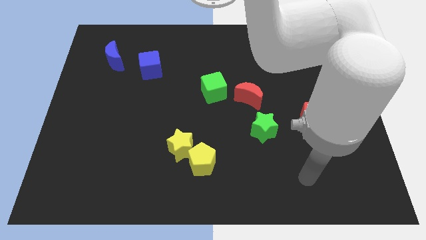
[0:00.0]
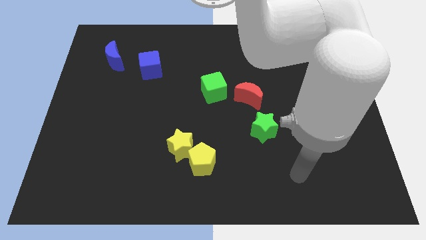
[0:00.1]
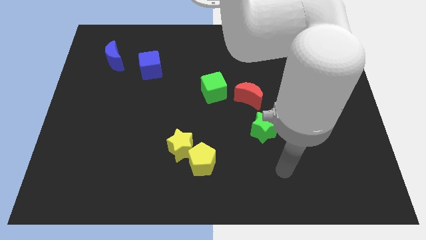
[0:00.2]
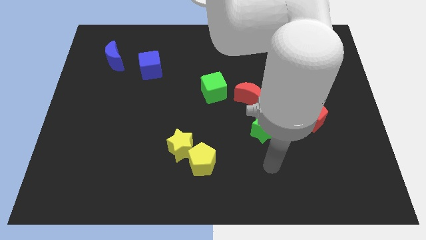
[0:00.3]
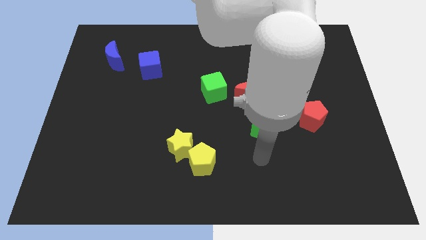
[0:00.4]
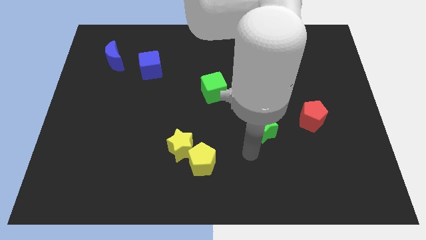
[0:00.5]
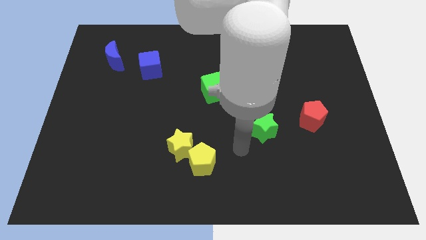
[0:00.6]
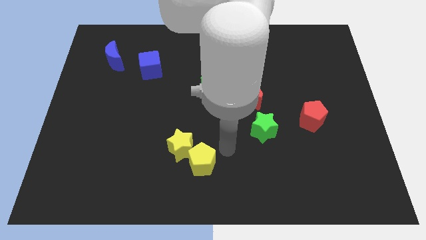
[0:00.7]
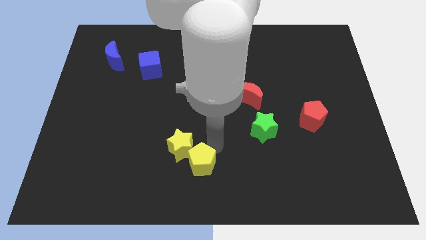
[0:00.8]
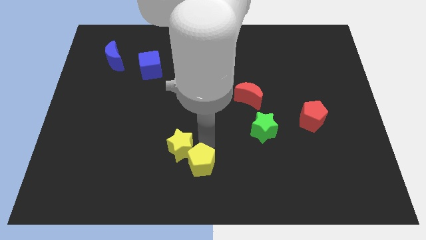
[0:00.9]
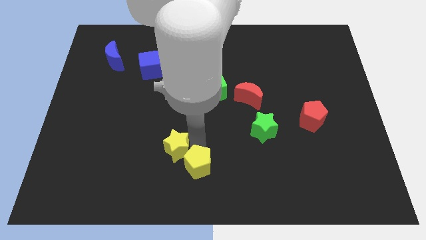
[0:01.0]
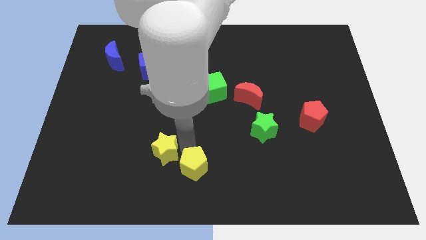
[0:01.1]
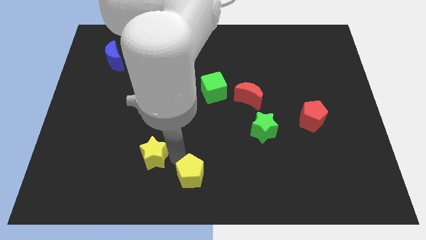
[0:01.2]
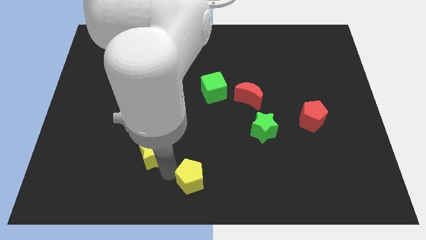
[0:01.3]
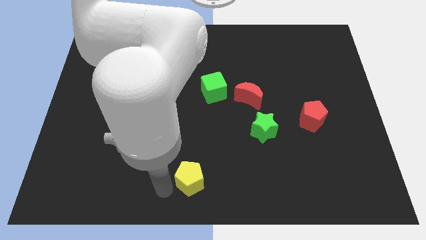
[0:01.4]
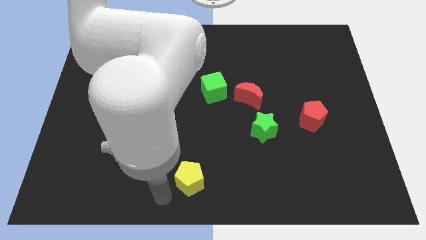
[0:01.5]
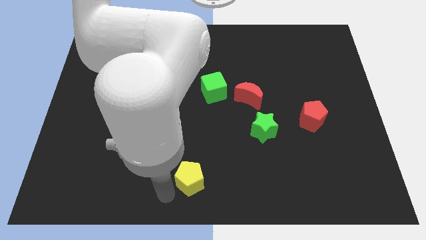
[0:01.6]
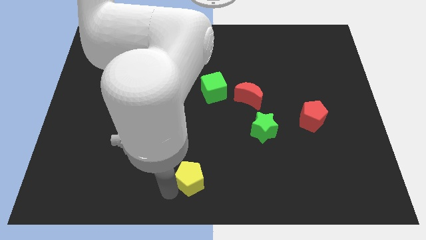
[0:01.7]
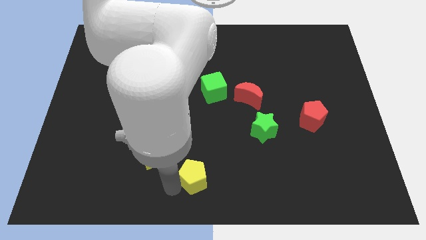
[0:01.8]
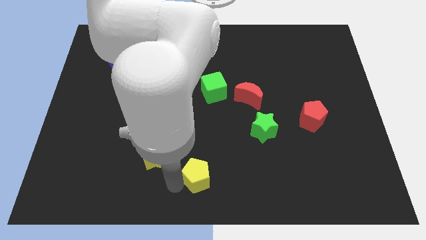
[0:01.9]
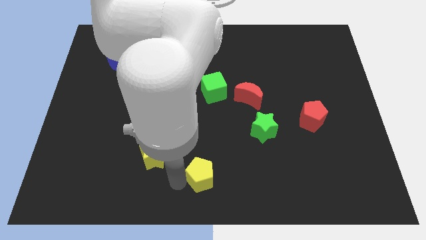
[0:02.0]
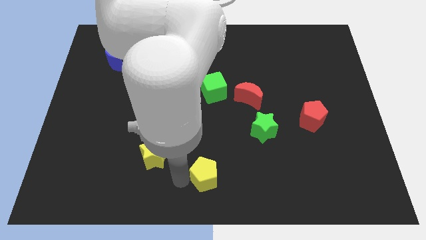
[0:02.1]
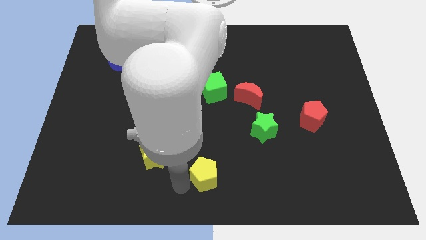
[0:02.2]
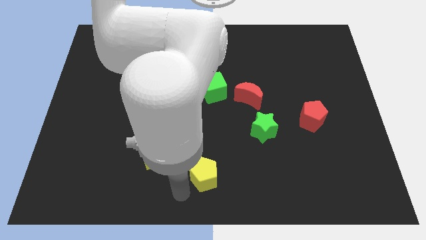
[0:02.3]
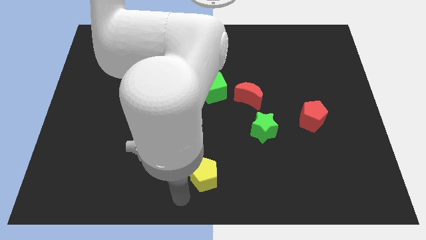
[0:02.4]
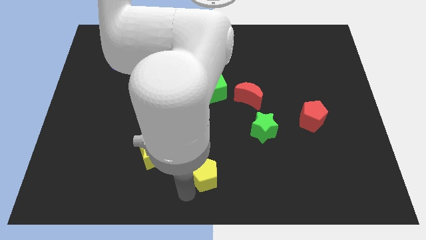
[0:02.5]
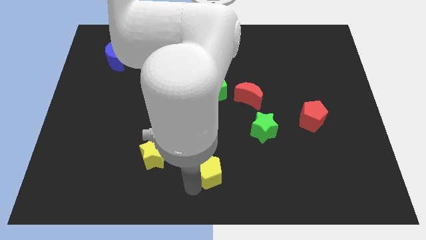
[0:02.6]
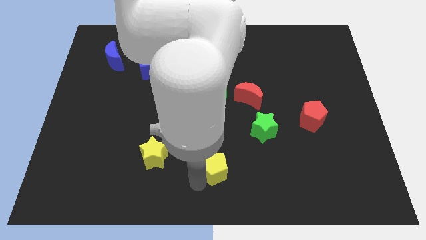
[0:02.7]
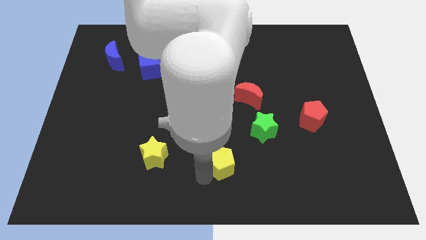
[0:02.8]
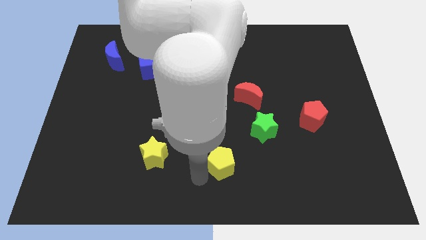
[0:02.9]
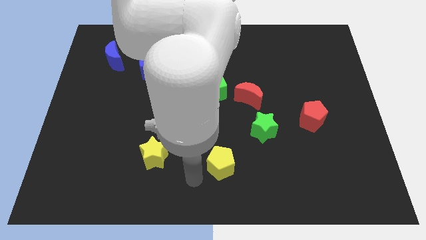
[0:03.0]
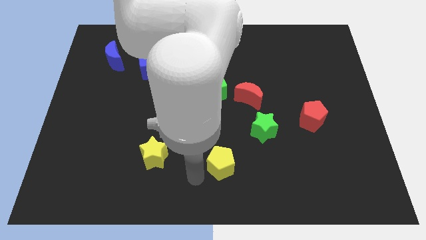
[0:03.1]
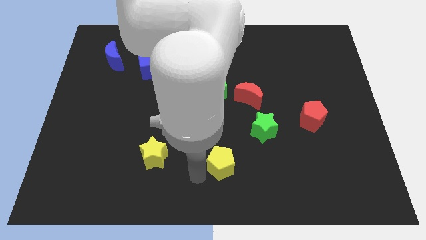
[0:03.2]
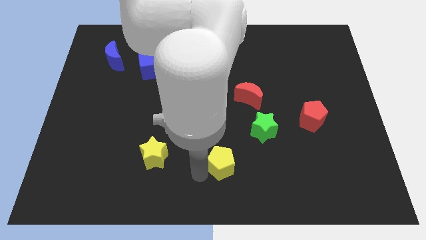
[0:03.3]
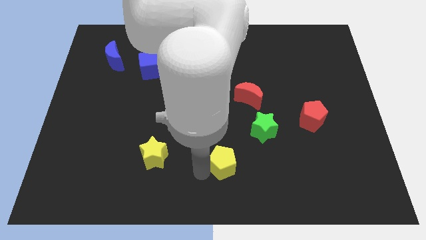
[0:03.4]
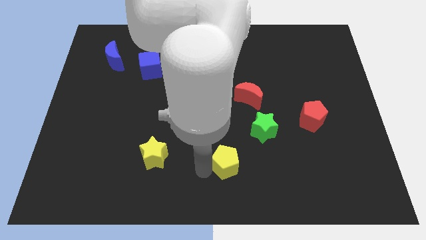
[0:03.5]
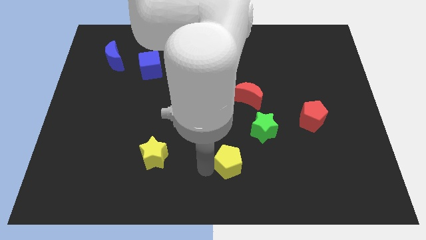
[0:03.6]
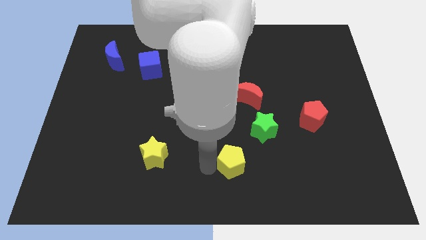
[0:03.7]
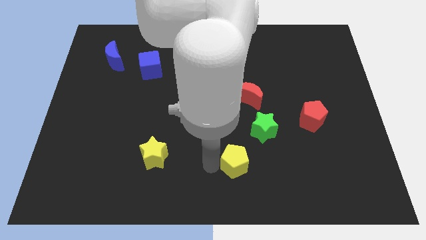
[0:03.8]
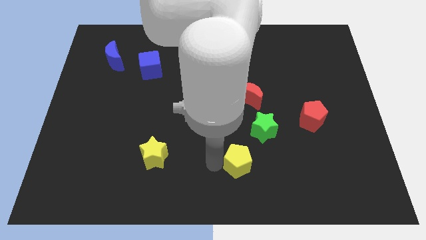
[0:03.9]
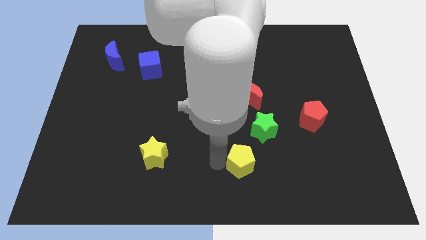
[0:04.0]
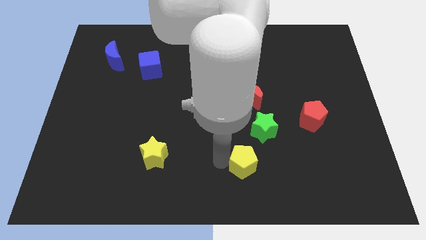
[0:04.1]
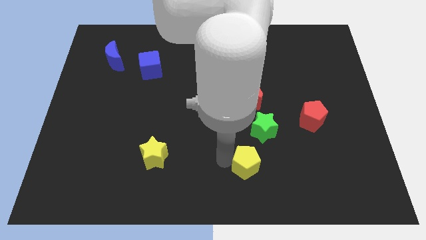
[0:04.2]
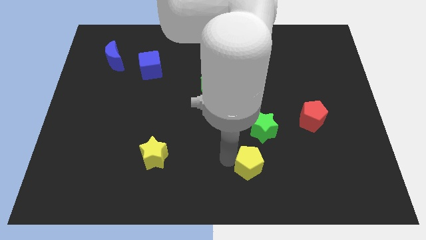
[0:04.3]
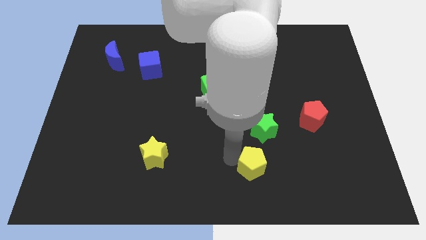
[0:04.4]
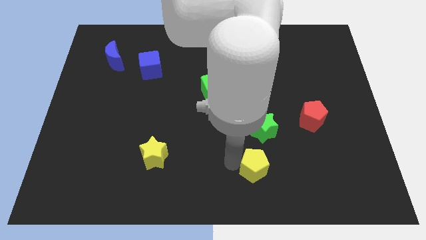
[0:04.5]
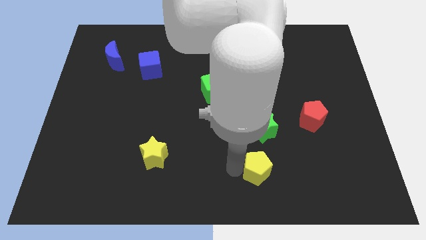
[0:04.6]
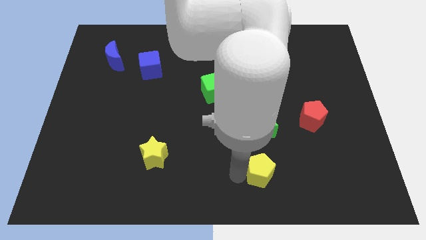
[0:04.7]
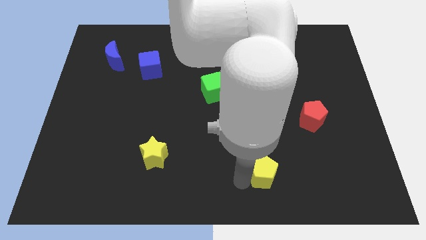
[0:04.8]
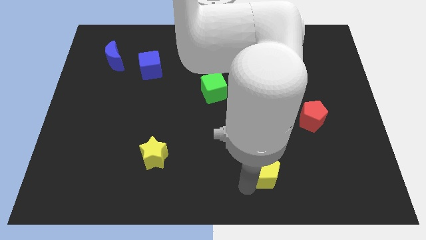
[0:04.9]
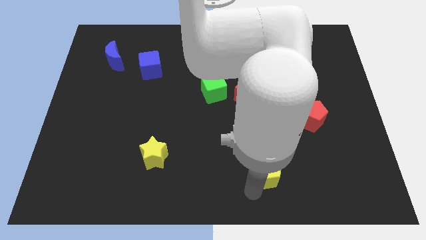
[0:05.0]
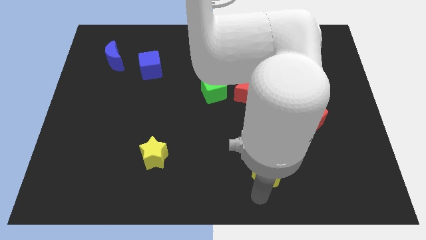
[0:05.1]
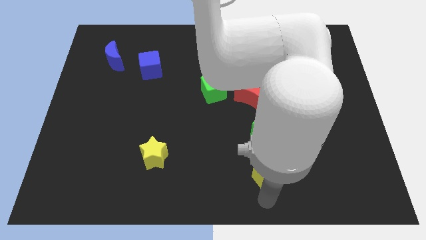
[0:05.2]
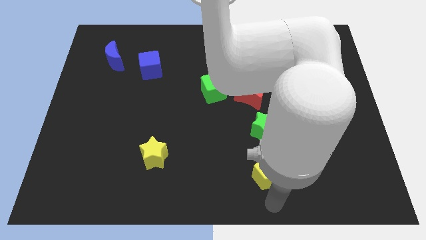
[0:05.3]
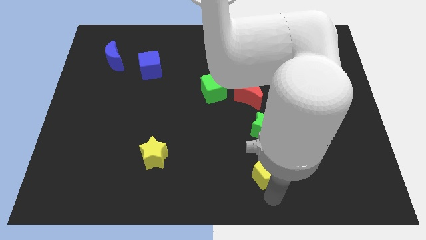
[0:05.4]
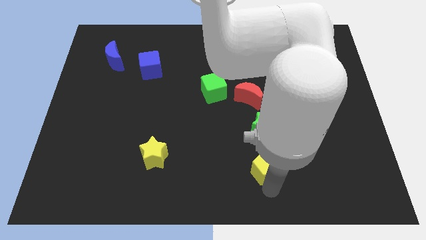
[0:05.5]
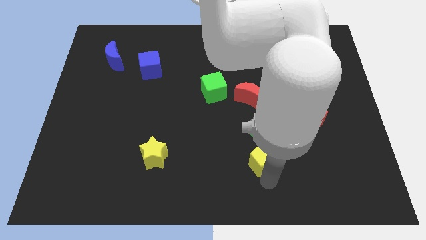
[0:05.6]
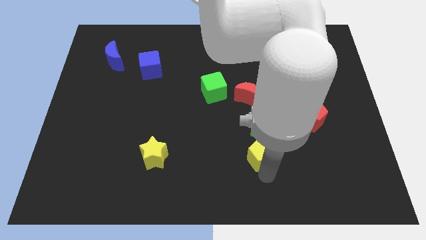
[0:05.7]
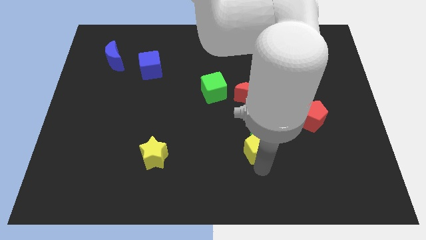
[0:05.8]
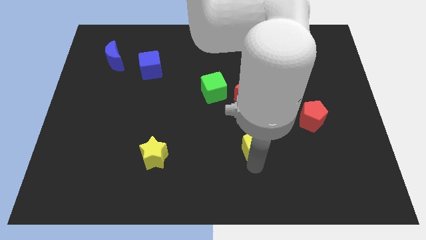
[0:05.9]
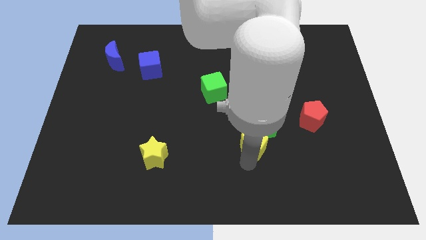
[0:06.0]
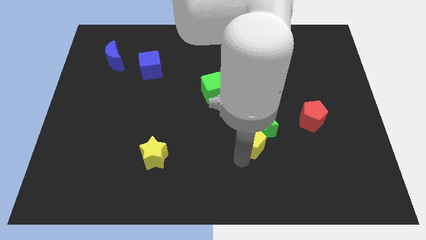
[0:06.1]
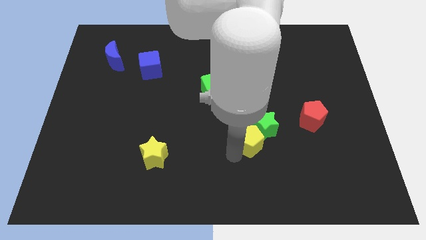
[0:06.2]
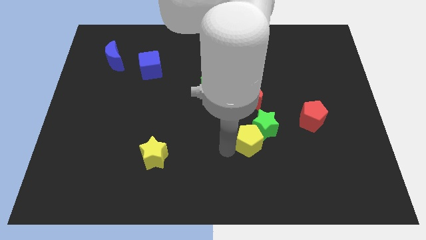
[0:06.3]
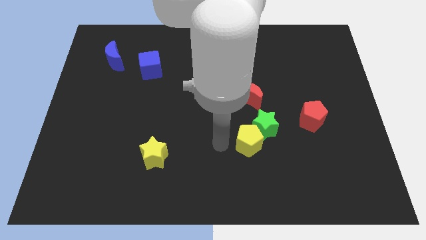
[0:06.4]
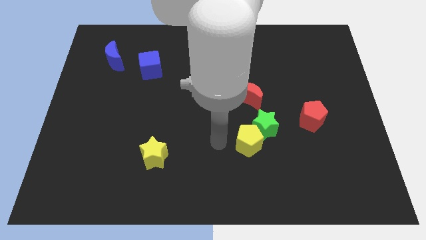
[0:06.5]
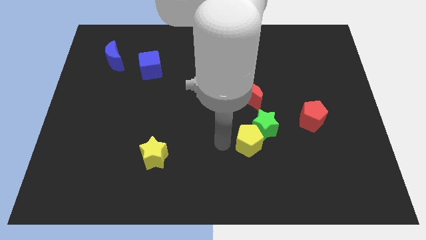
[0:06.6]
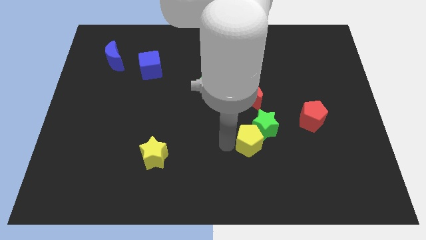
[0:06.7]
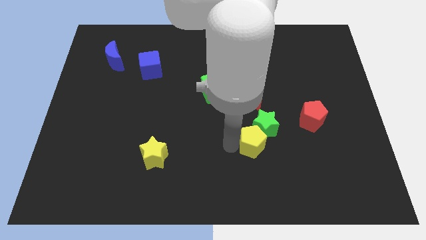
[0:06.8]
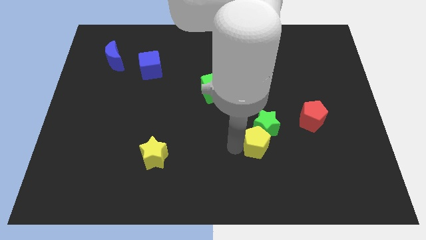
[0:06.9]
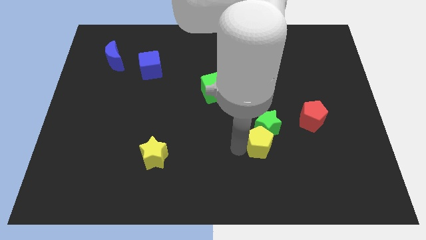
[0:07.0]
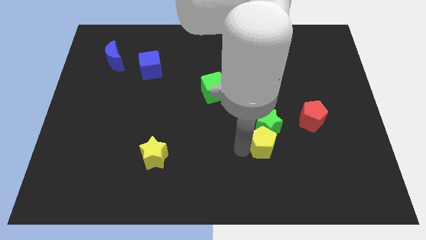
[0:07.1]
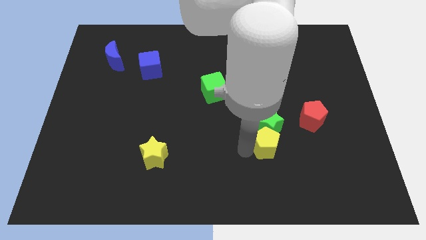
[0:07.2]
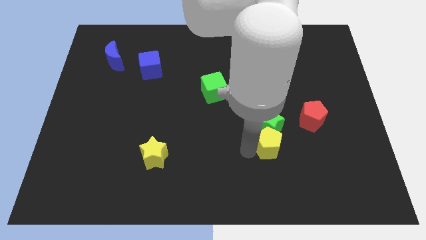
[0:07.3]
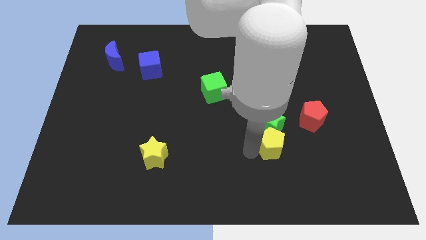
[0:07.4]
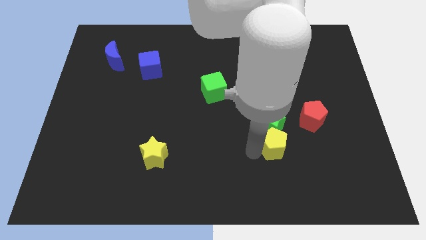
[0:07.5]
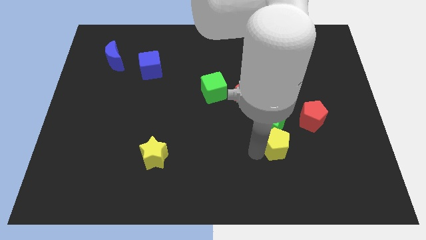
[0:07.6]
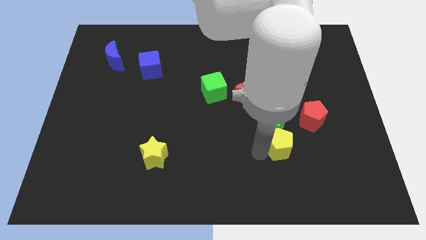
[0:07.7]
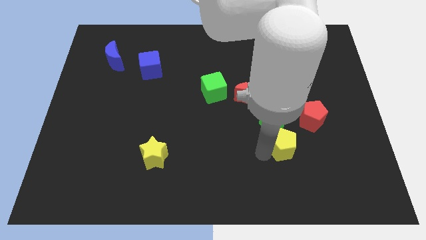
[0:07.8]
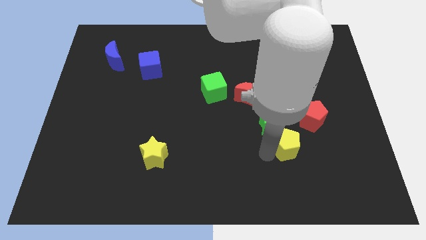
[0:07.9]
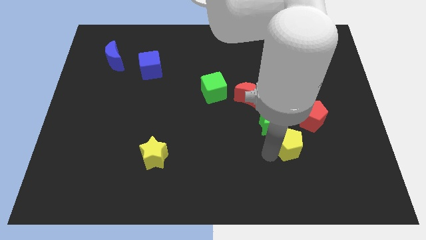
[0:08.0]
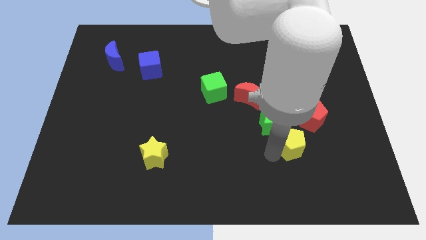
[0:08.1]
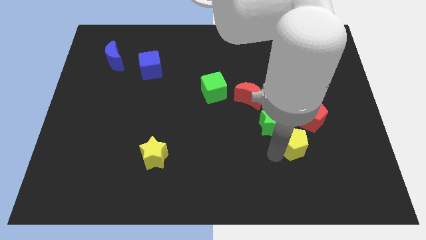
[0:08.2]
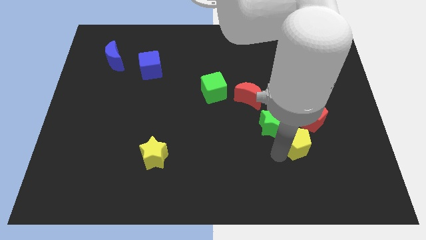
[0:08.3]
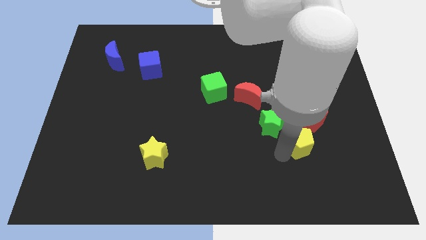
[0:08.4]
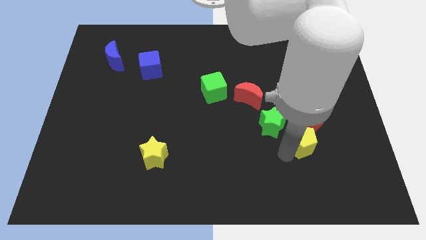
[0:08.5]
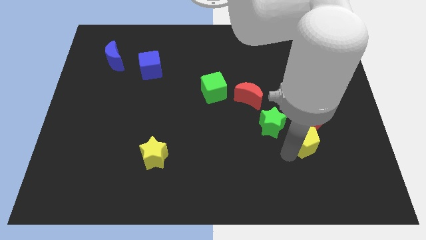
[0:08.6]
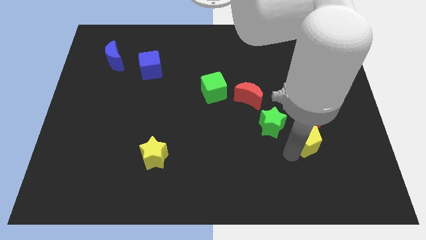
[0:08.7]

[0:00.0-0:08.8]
put the yellow pentagon to the right of the green star
